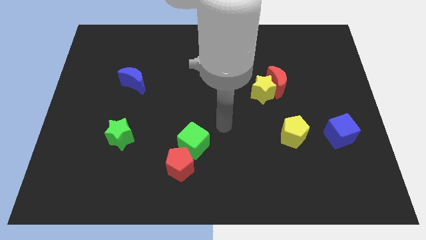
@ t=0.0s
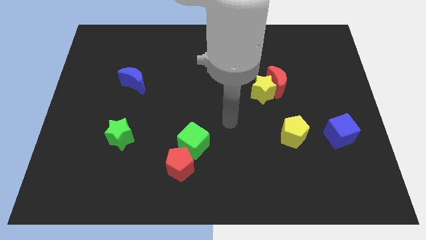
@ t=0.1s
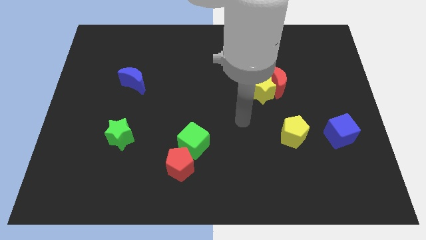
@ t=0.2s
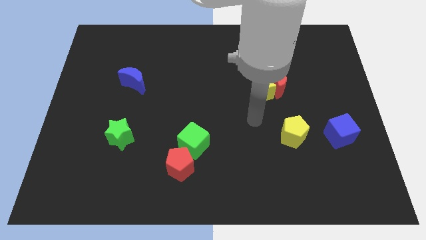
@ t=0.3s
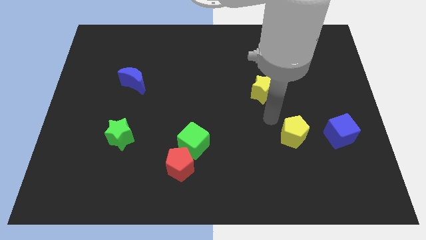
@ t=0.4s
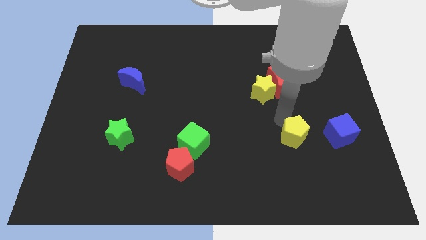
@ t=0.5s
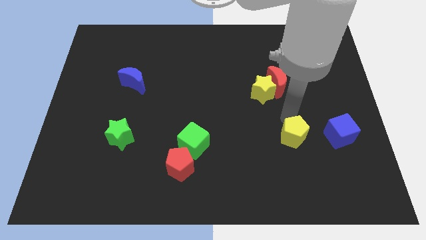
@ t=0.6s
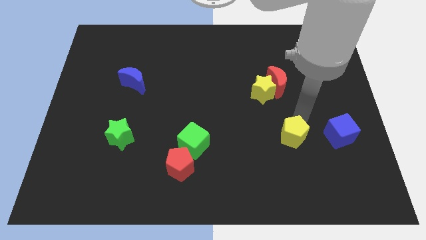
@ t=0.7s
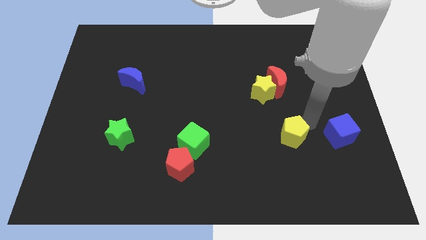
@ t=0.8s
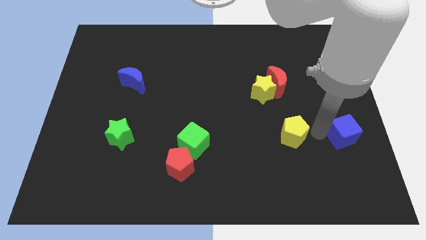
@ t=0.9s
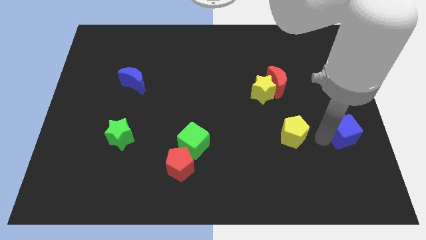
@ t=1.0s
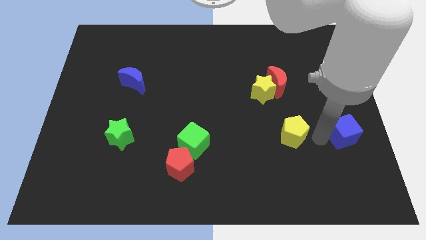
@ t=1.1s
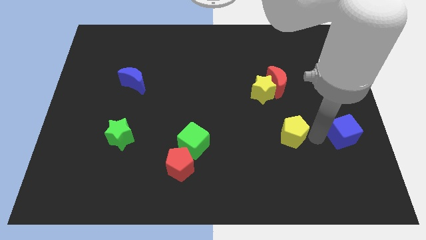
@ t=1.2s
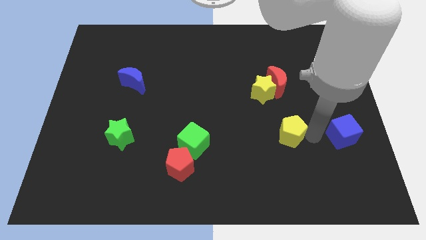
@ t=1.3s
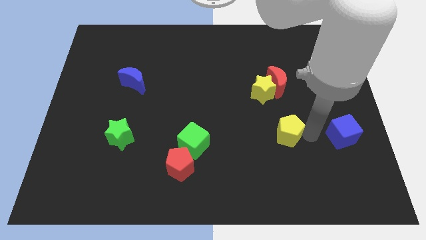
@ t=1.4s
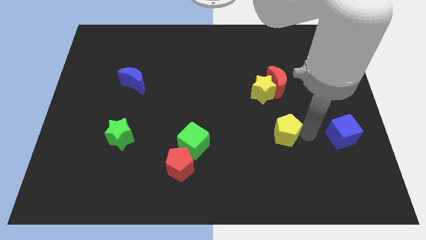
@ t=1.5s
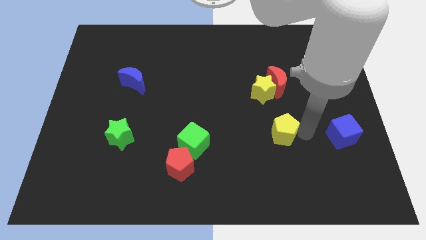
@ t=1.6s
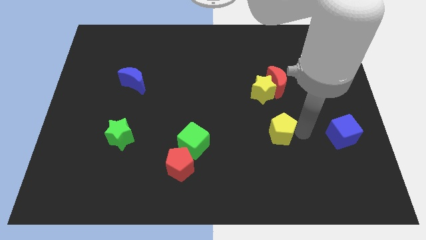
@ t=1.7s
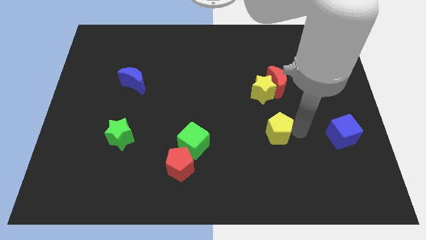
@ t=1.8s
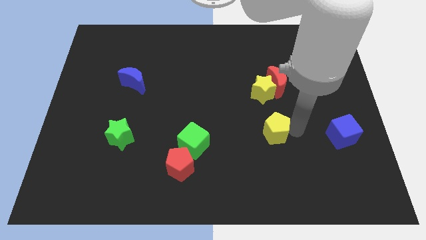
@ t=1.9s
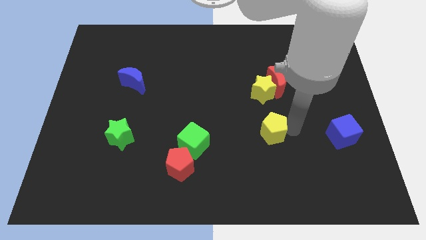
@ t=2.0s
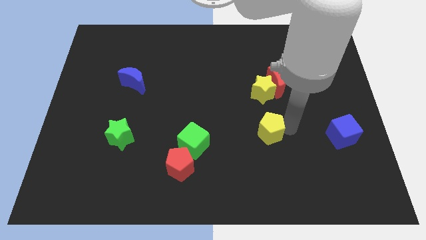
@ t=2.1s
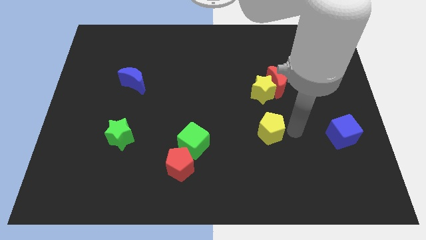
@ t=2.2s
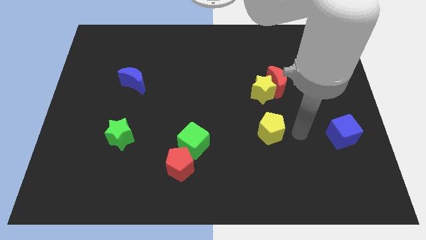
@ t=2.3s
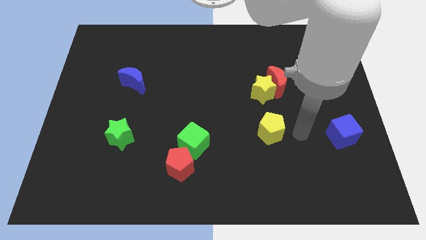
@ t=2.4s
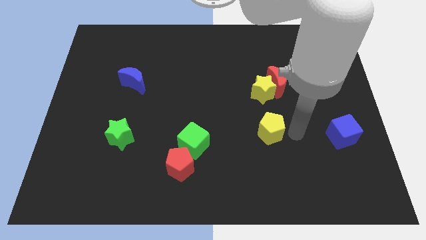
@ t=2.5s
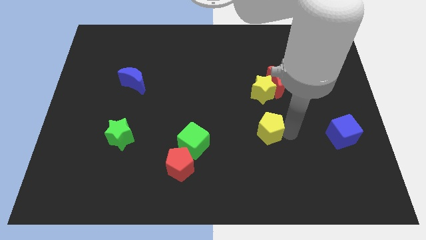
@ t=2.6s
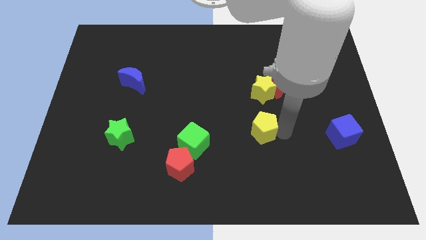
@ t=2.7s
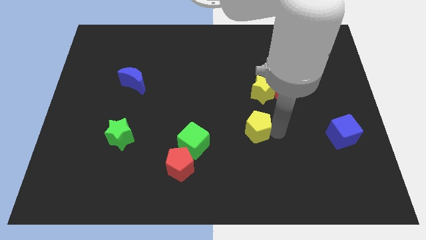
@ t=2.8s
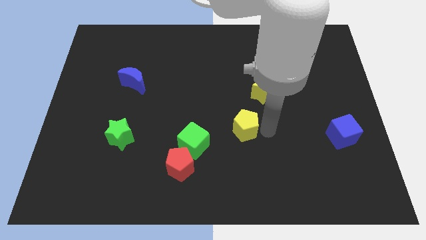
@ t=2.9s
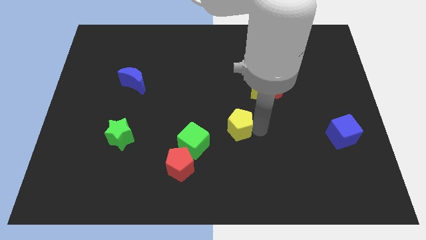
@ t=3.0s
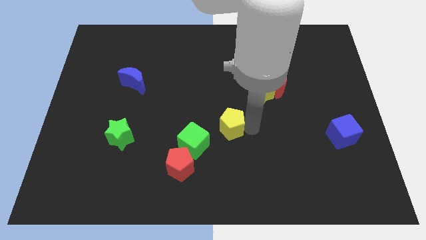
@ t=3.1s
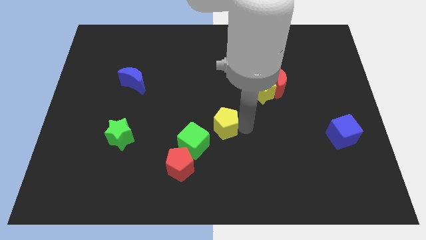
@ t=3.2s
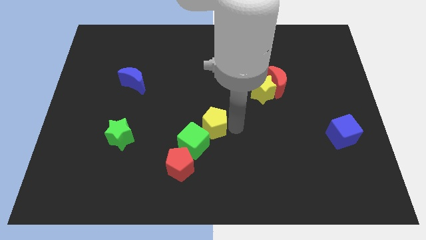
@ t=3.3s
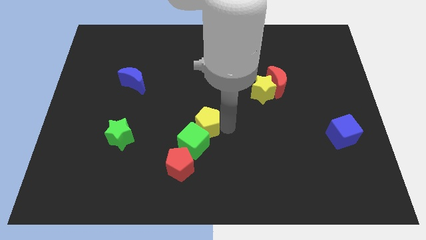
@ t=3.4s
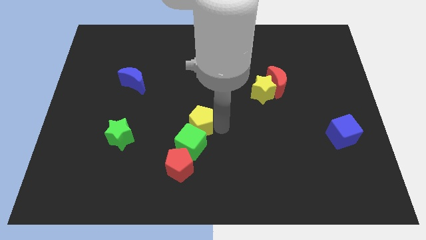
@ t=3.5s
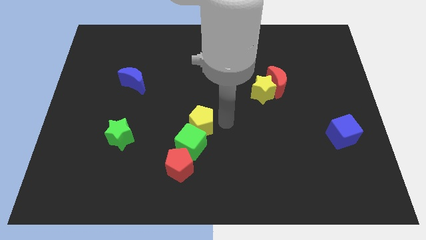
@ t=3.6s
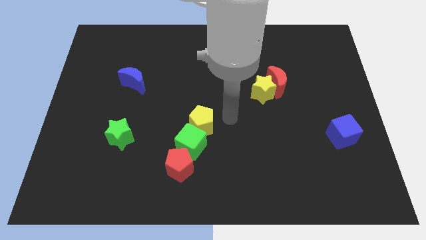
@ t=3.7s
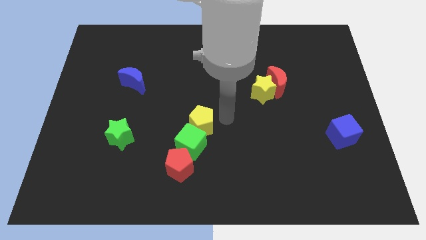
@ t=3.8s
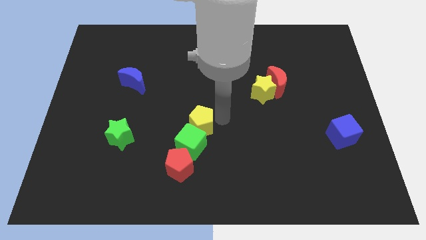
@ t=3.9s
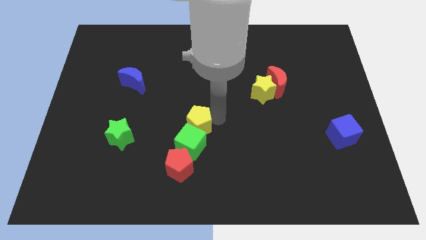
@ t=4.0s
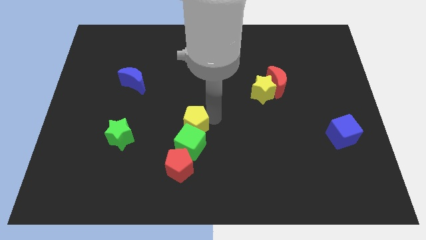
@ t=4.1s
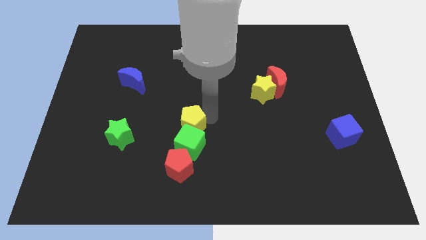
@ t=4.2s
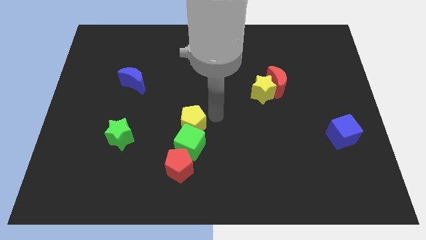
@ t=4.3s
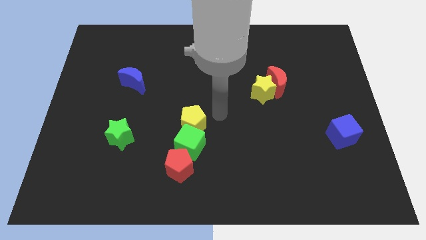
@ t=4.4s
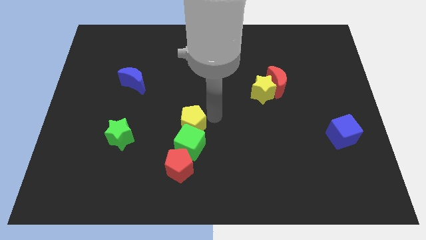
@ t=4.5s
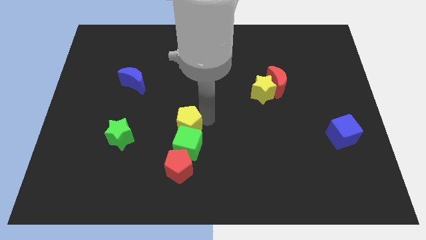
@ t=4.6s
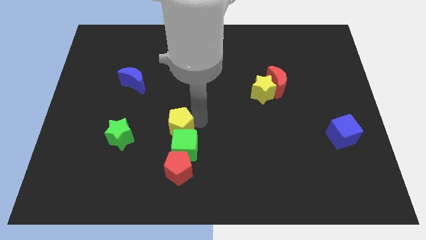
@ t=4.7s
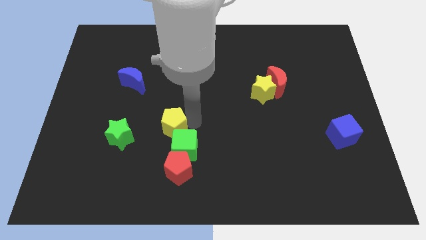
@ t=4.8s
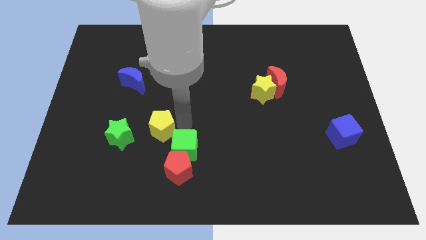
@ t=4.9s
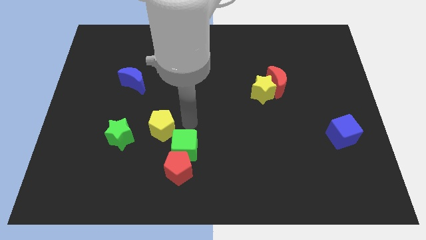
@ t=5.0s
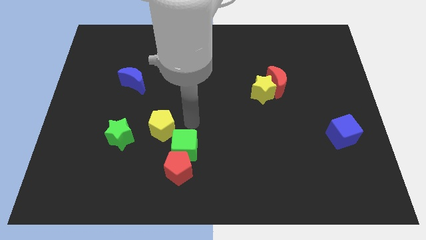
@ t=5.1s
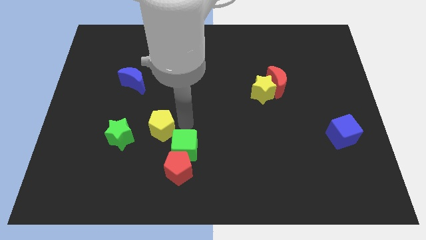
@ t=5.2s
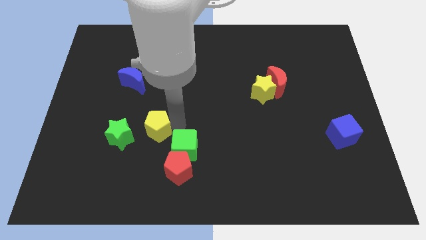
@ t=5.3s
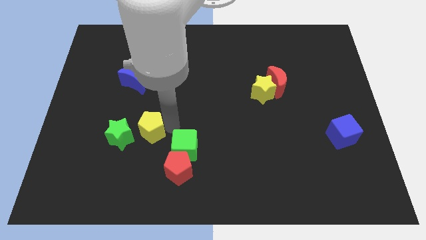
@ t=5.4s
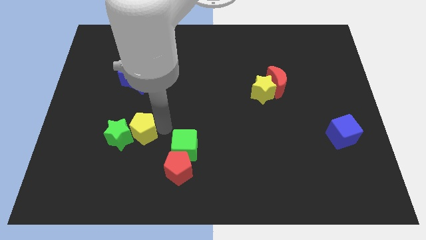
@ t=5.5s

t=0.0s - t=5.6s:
push the yellow pentagon next to the green star

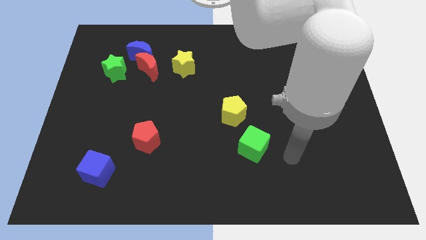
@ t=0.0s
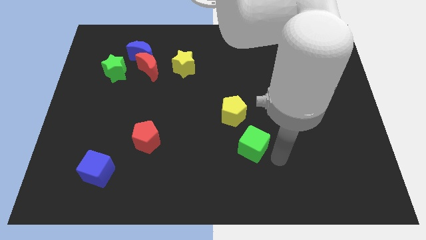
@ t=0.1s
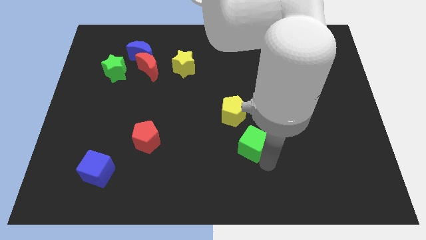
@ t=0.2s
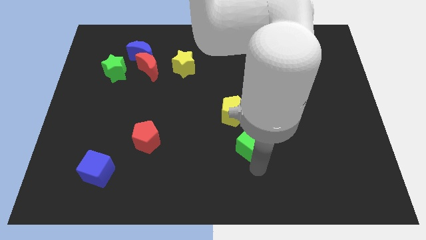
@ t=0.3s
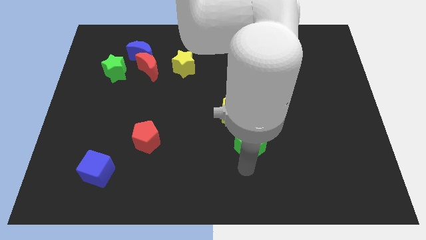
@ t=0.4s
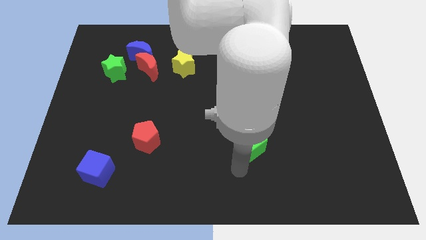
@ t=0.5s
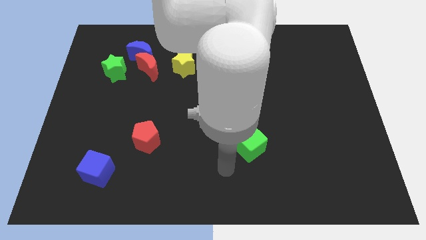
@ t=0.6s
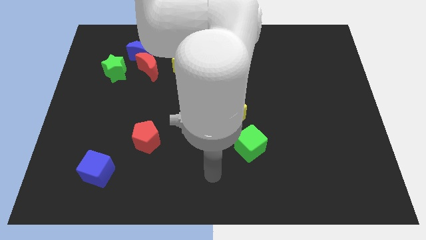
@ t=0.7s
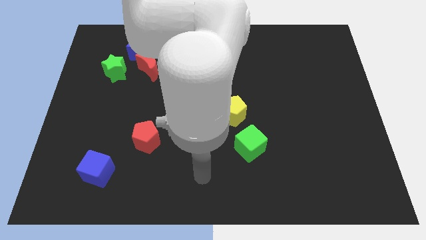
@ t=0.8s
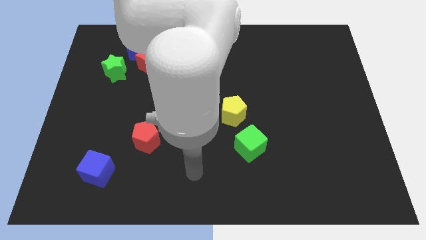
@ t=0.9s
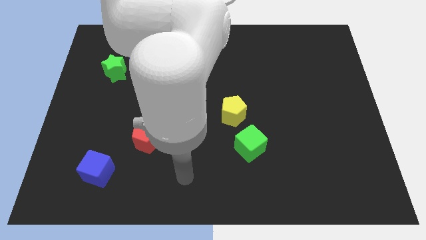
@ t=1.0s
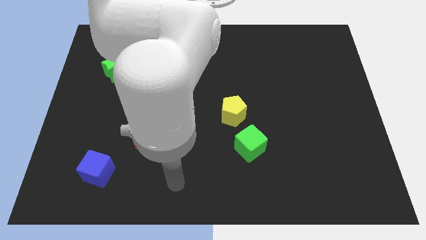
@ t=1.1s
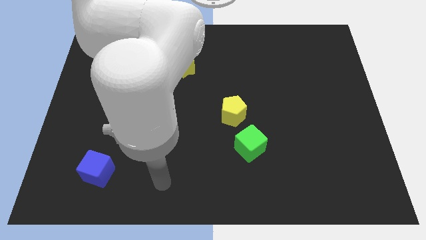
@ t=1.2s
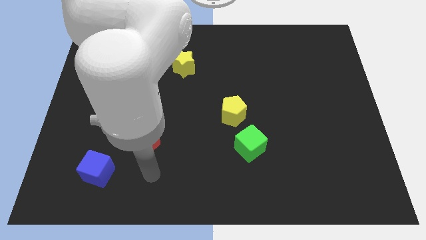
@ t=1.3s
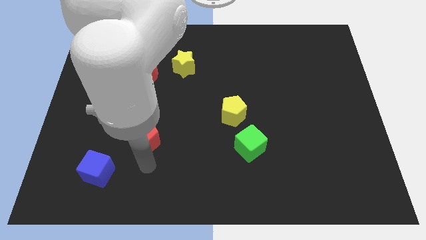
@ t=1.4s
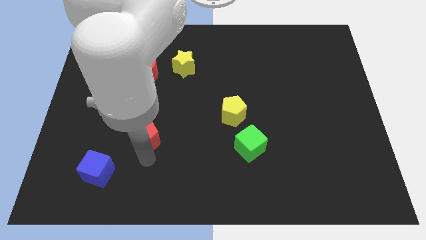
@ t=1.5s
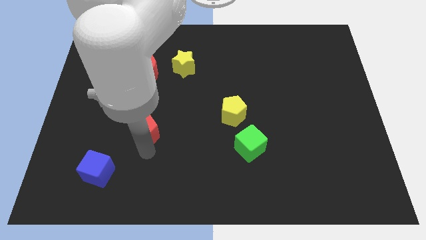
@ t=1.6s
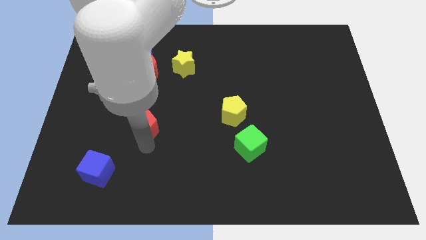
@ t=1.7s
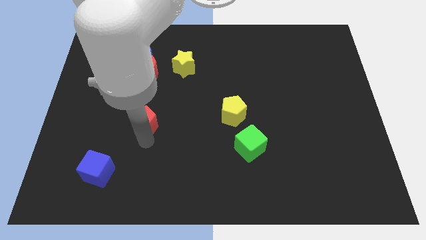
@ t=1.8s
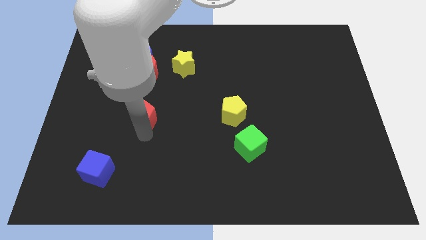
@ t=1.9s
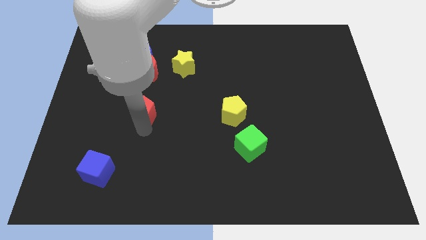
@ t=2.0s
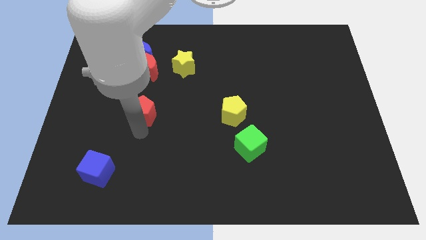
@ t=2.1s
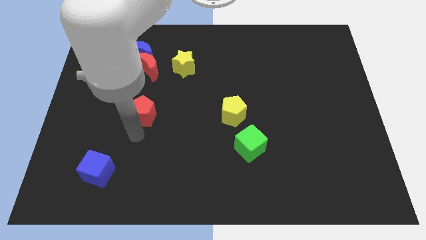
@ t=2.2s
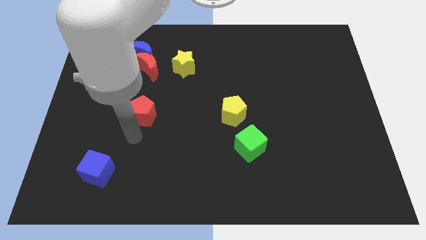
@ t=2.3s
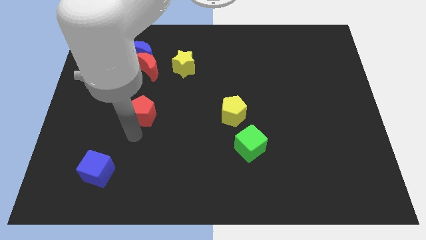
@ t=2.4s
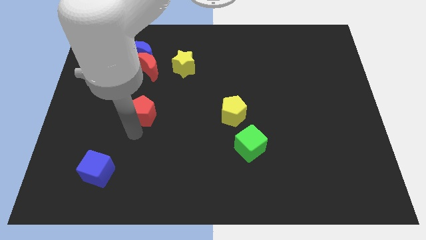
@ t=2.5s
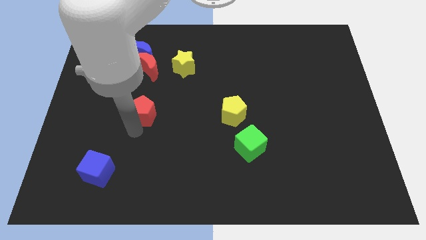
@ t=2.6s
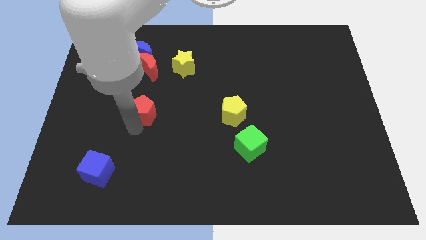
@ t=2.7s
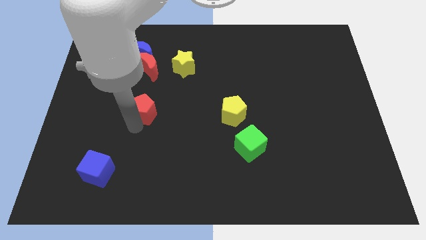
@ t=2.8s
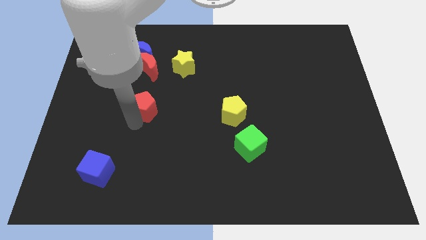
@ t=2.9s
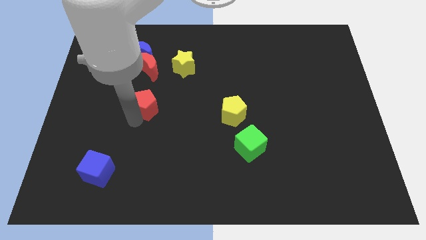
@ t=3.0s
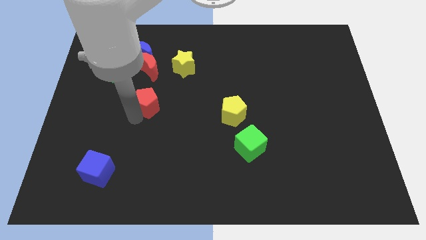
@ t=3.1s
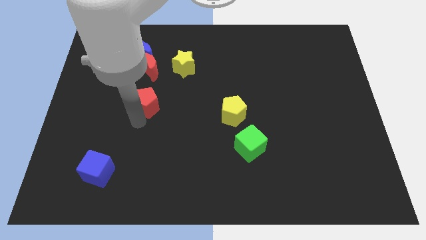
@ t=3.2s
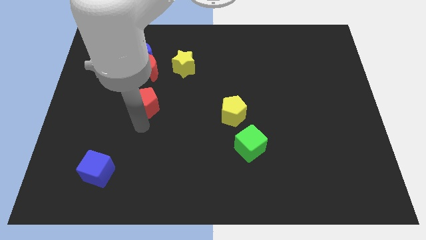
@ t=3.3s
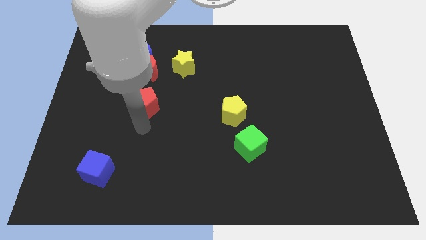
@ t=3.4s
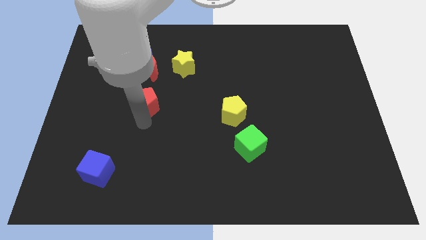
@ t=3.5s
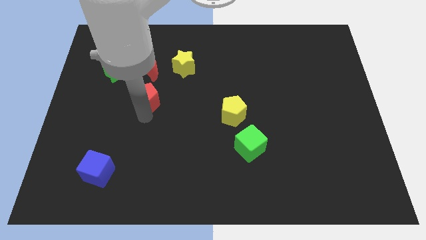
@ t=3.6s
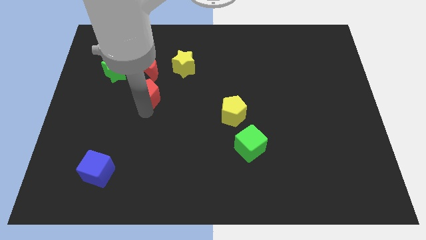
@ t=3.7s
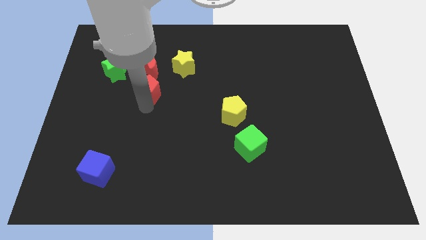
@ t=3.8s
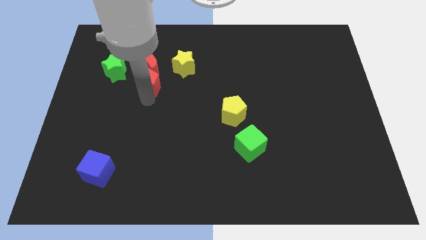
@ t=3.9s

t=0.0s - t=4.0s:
slide the red pentagon close to the red moon
